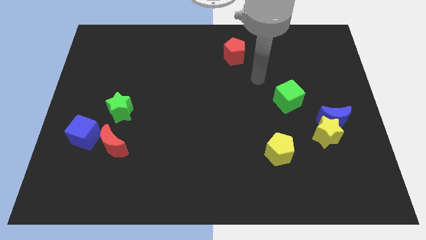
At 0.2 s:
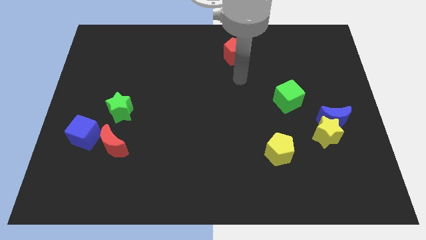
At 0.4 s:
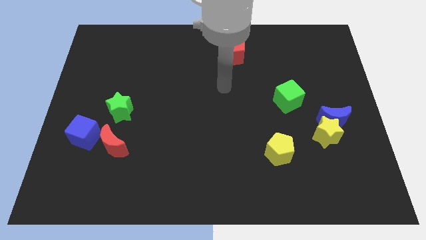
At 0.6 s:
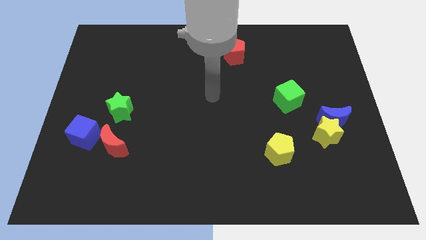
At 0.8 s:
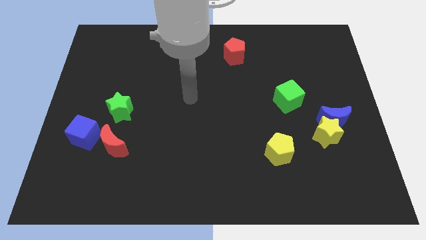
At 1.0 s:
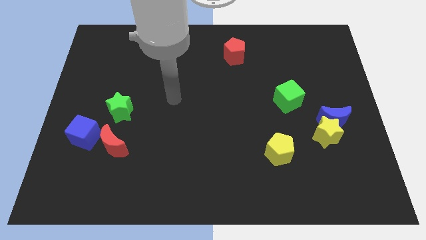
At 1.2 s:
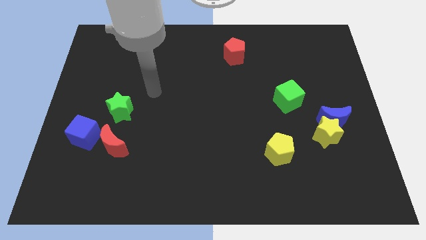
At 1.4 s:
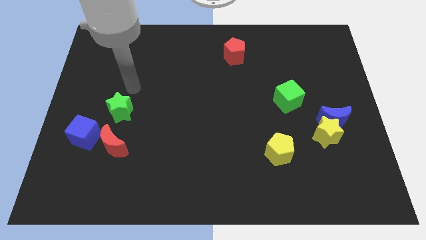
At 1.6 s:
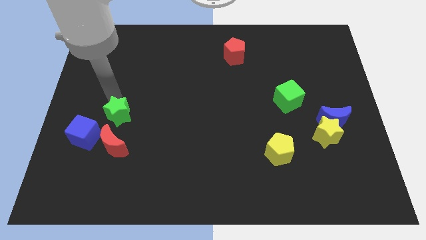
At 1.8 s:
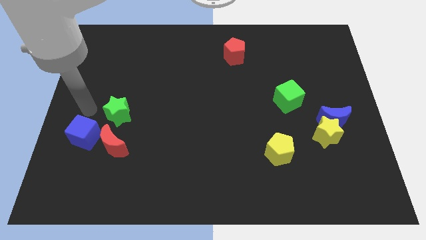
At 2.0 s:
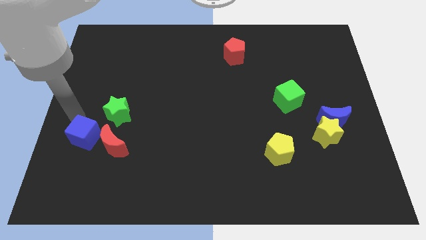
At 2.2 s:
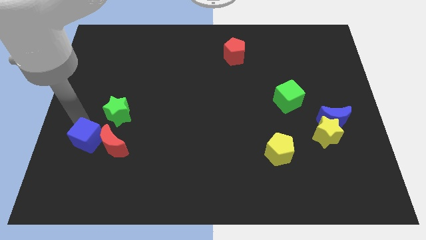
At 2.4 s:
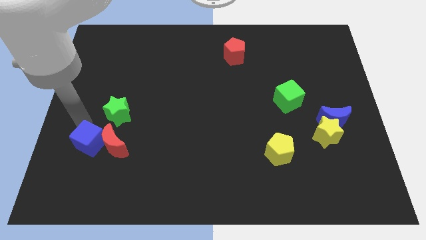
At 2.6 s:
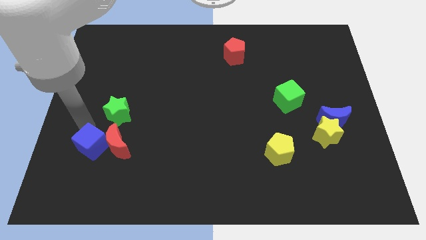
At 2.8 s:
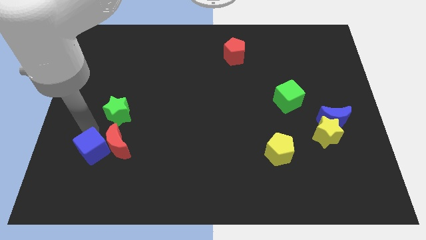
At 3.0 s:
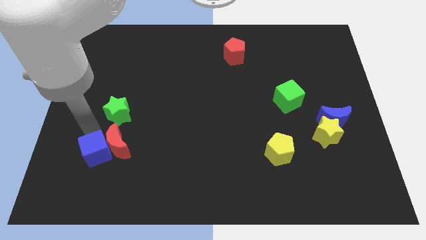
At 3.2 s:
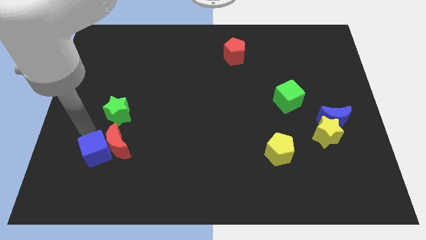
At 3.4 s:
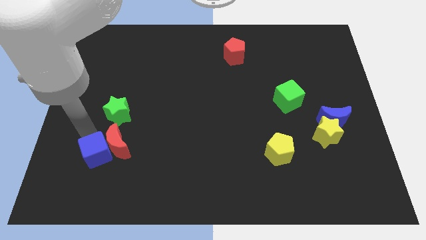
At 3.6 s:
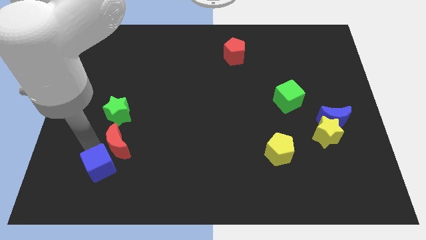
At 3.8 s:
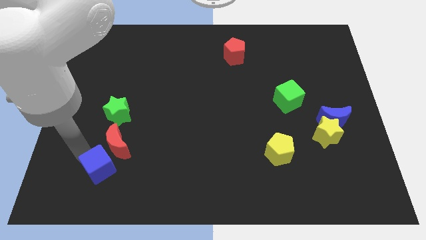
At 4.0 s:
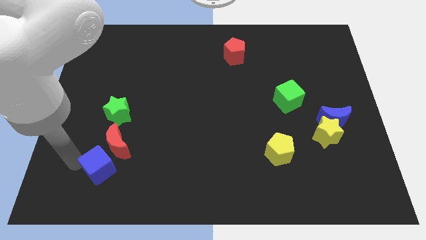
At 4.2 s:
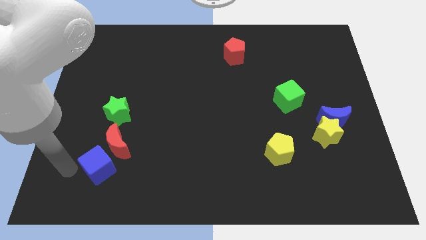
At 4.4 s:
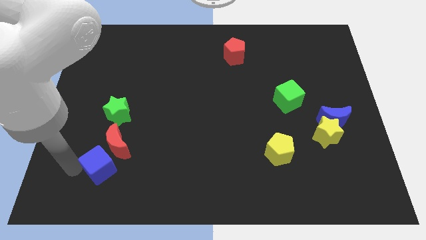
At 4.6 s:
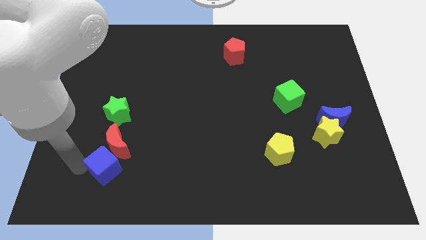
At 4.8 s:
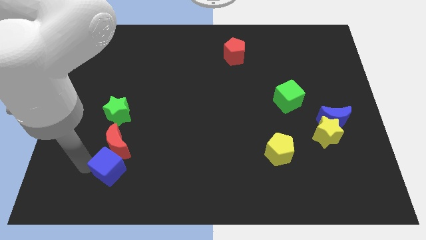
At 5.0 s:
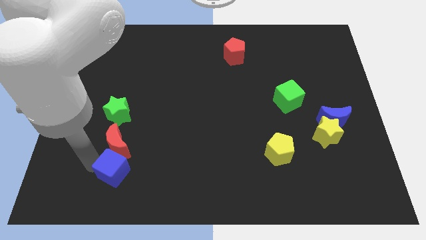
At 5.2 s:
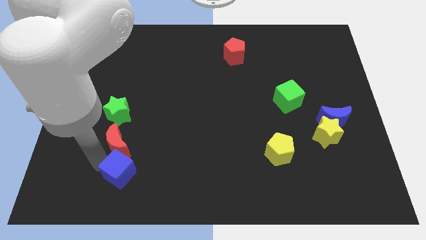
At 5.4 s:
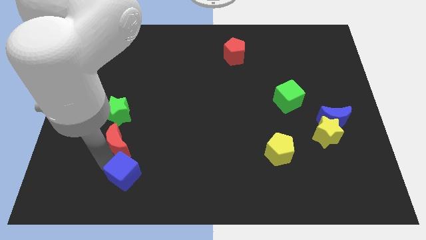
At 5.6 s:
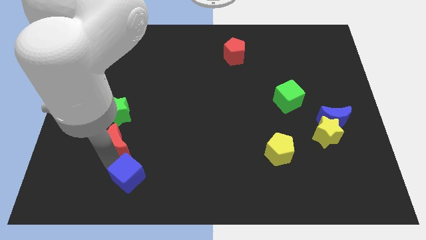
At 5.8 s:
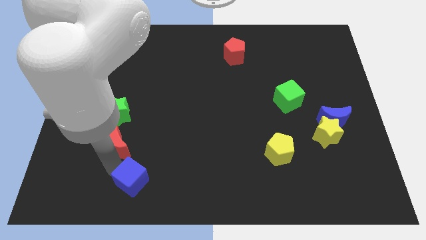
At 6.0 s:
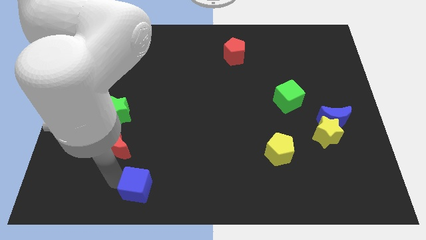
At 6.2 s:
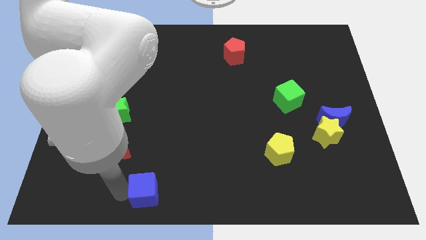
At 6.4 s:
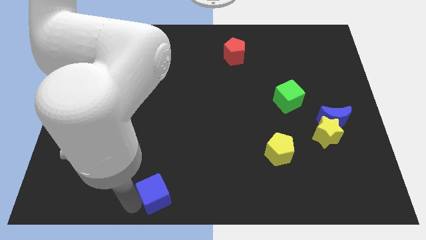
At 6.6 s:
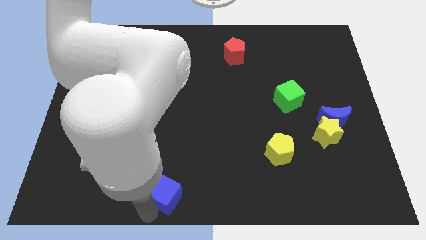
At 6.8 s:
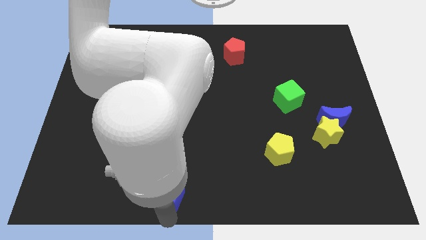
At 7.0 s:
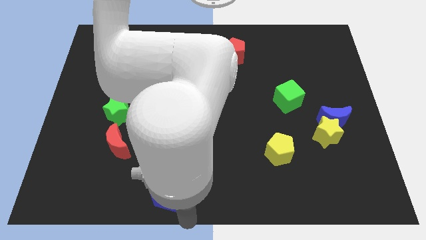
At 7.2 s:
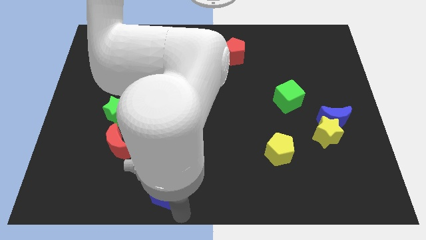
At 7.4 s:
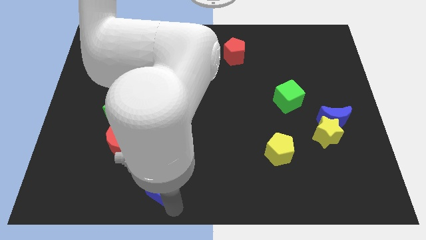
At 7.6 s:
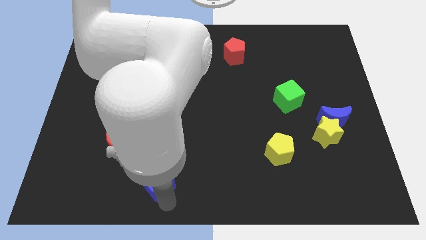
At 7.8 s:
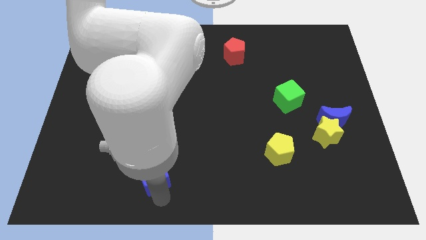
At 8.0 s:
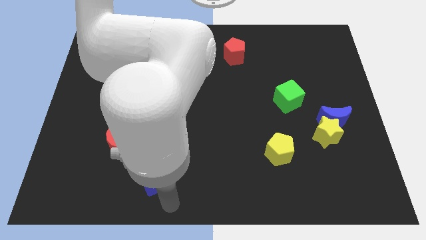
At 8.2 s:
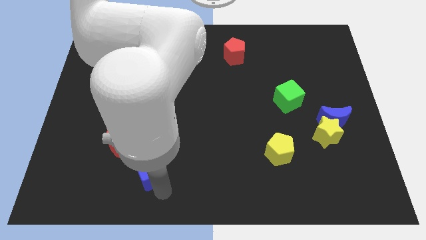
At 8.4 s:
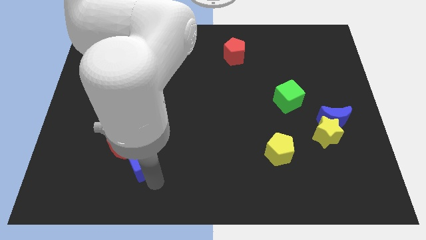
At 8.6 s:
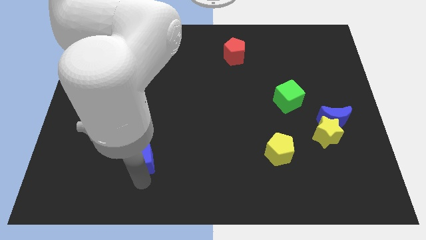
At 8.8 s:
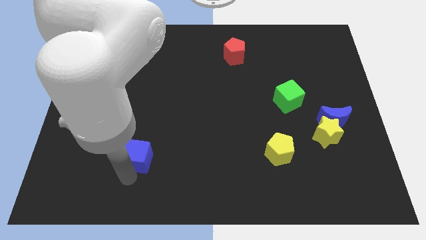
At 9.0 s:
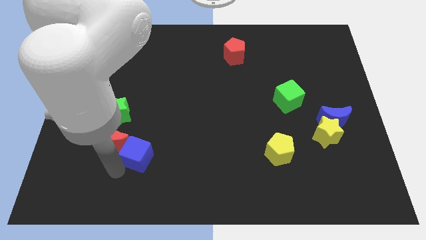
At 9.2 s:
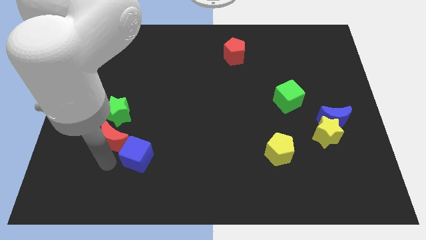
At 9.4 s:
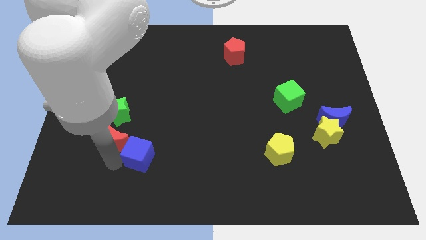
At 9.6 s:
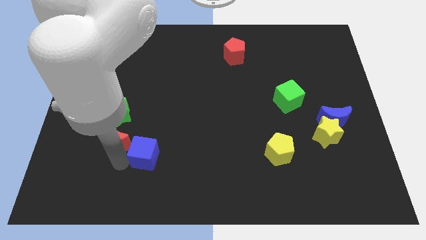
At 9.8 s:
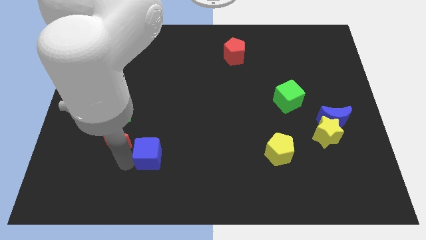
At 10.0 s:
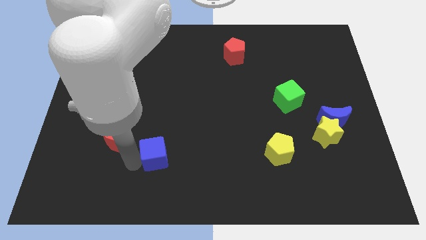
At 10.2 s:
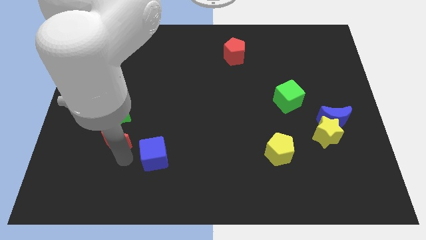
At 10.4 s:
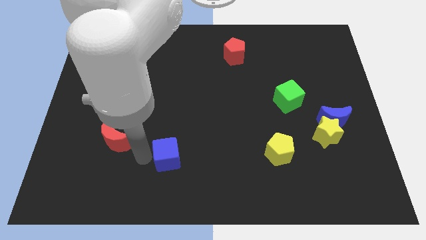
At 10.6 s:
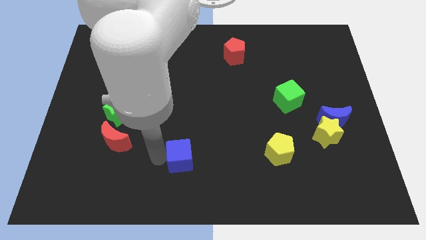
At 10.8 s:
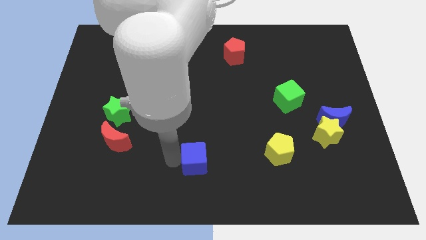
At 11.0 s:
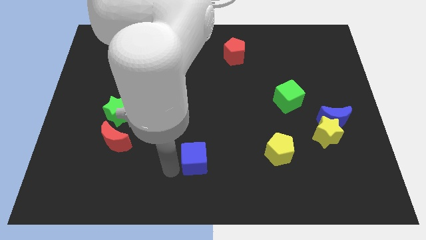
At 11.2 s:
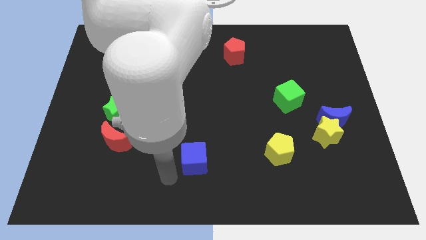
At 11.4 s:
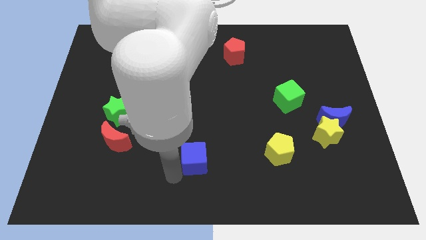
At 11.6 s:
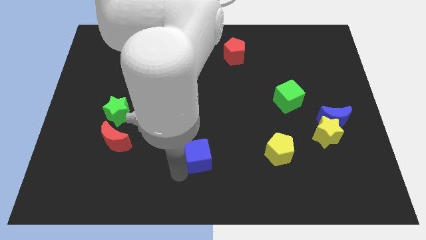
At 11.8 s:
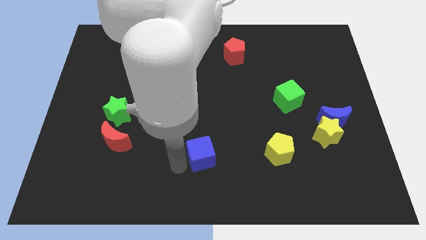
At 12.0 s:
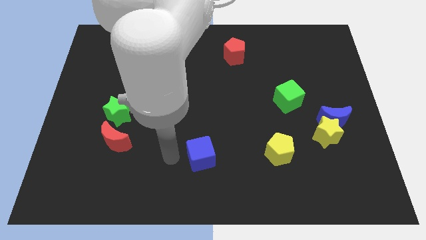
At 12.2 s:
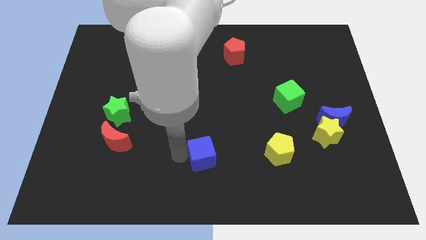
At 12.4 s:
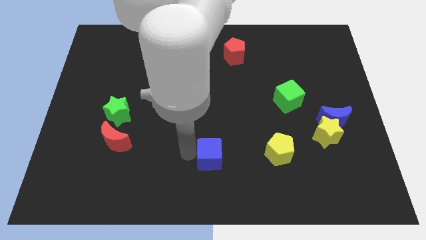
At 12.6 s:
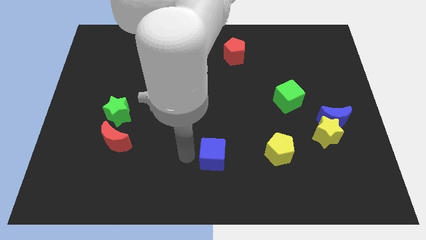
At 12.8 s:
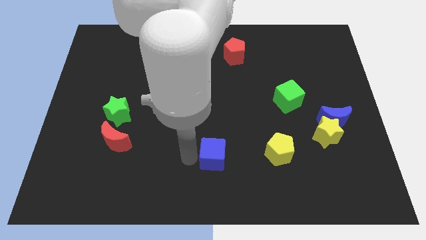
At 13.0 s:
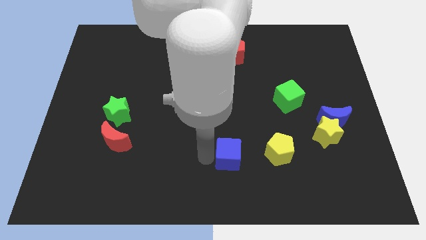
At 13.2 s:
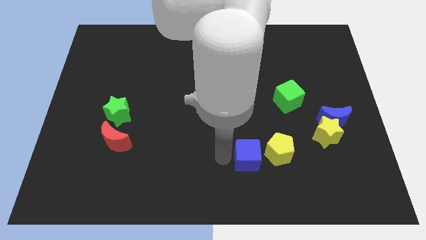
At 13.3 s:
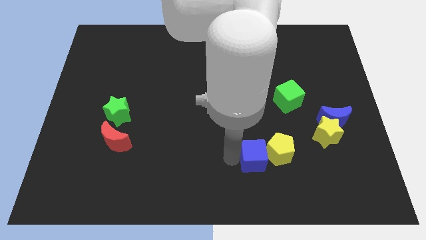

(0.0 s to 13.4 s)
push the blue cube towards the yellow pentagon
